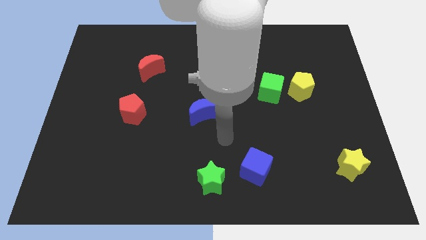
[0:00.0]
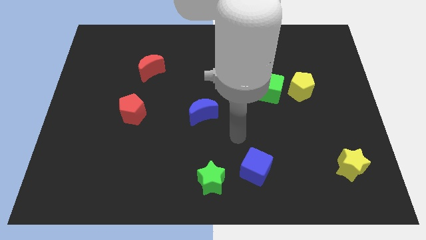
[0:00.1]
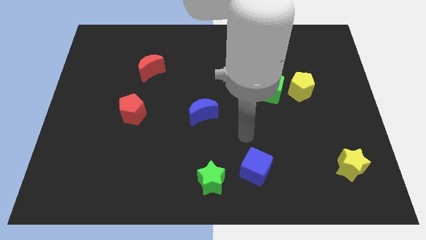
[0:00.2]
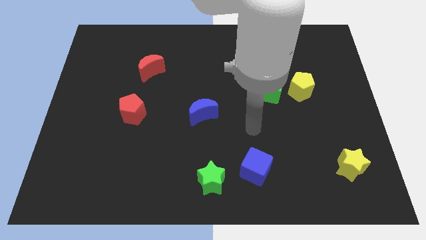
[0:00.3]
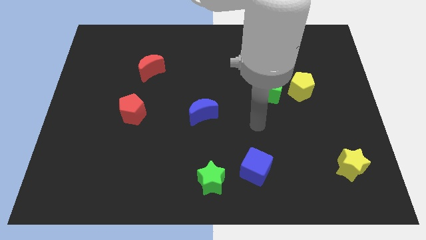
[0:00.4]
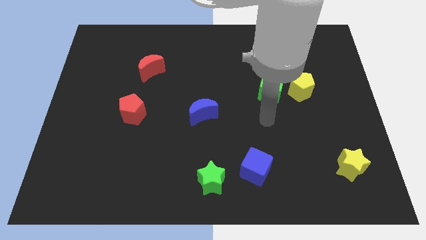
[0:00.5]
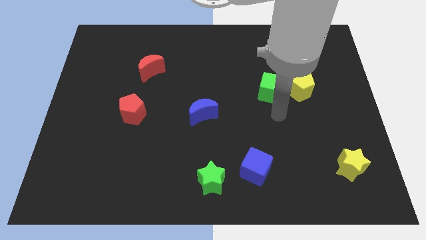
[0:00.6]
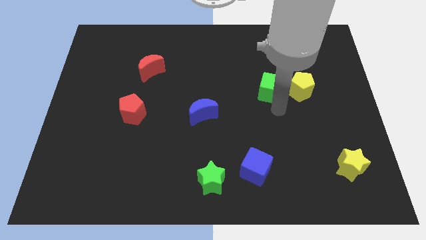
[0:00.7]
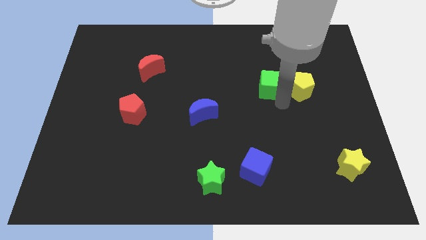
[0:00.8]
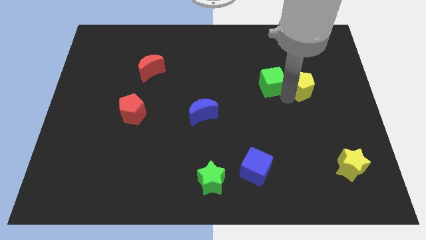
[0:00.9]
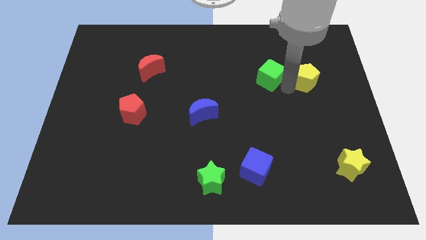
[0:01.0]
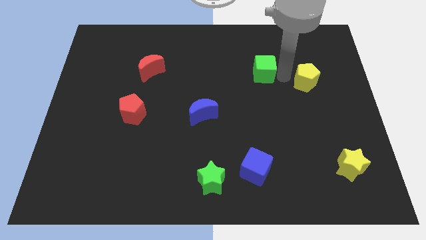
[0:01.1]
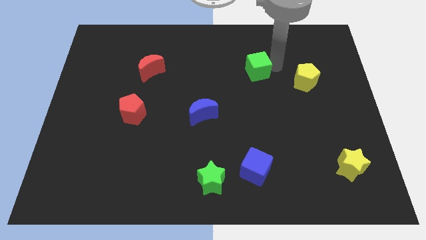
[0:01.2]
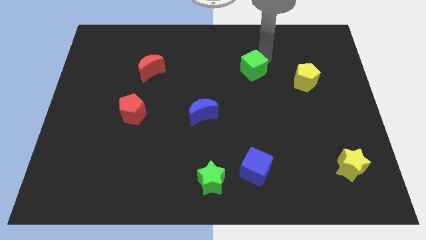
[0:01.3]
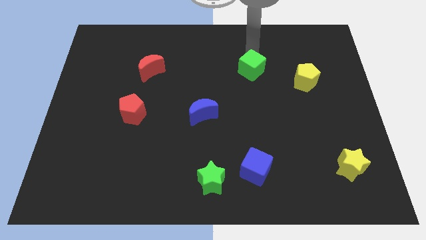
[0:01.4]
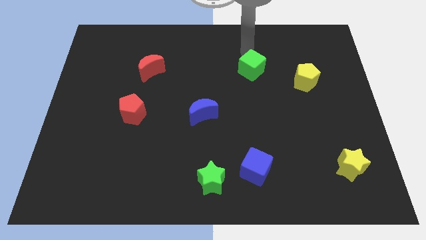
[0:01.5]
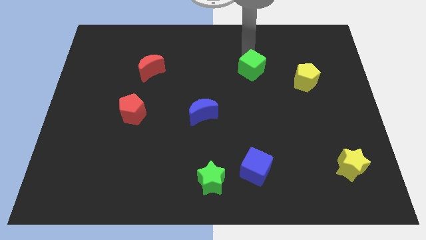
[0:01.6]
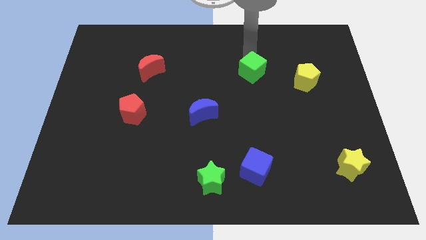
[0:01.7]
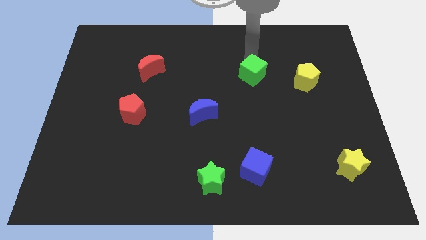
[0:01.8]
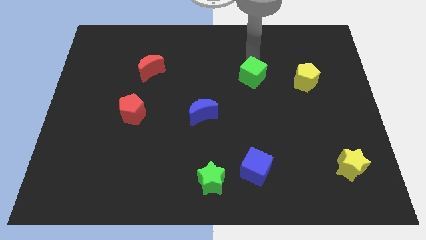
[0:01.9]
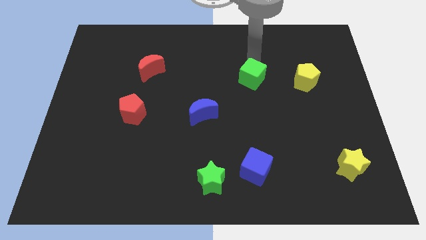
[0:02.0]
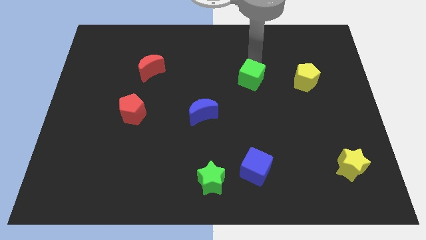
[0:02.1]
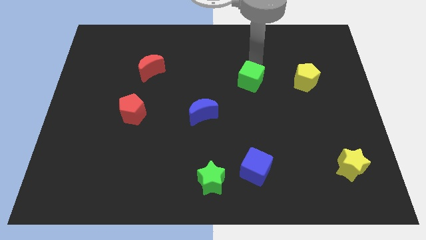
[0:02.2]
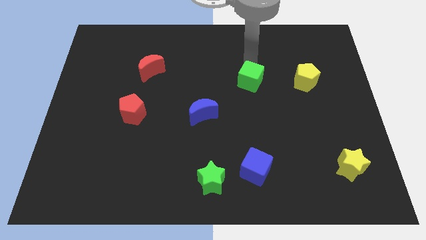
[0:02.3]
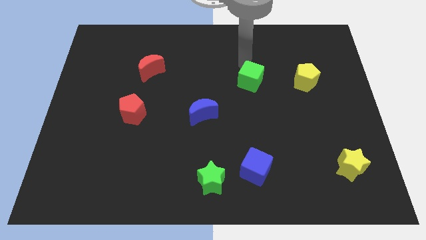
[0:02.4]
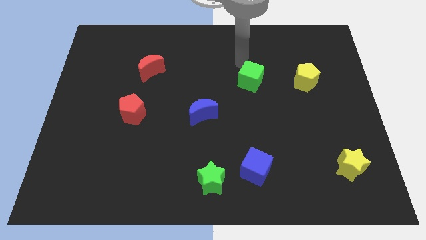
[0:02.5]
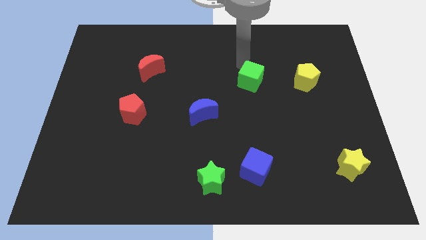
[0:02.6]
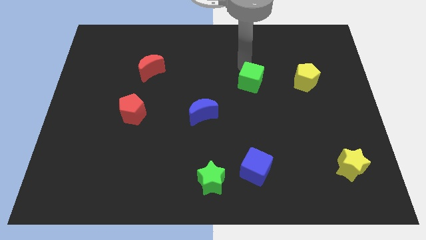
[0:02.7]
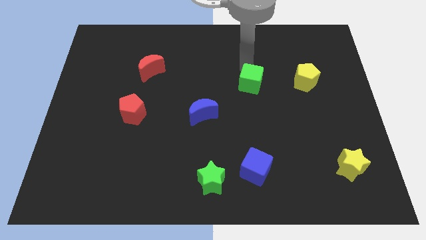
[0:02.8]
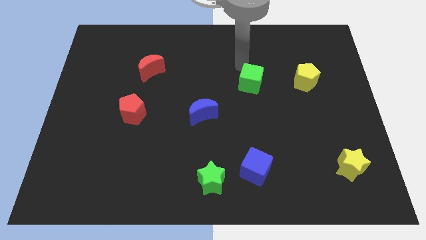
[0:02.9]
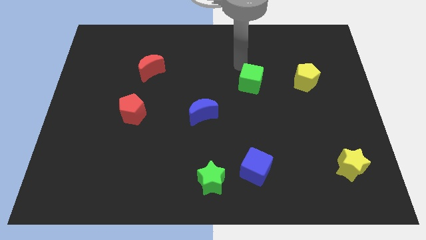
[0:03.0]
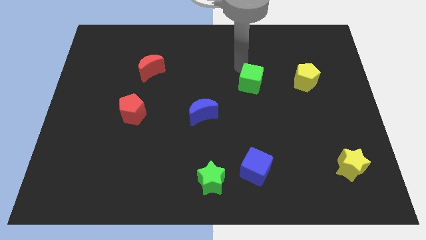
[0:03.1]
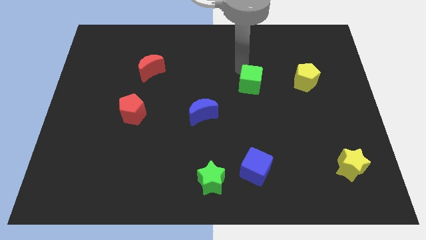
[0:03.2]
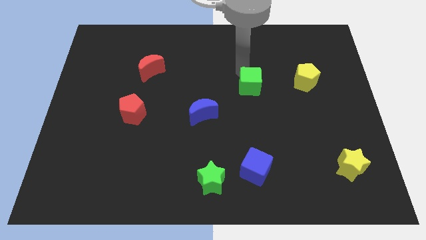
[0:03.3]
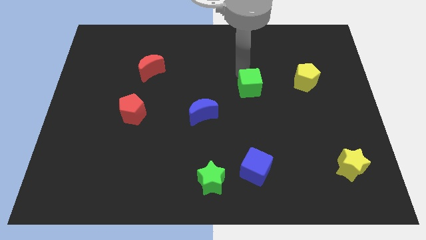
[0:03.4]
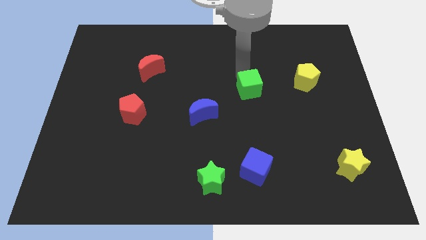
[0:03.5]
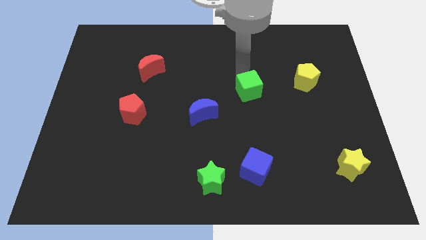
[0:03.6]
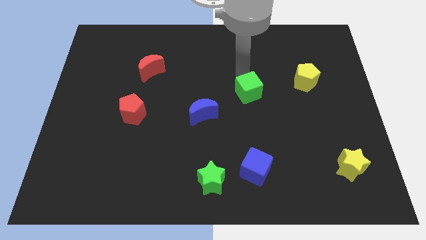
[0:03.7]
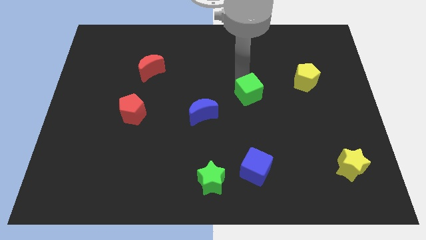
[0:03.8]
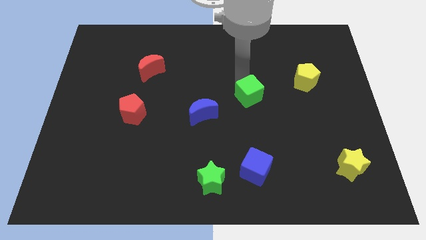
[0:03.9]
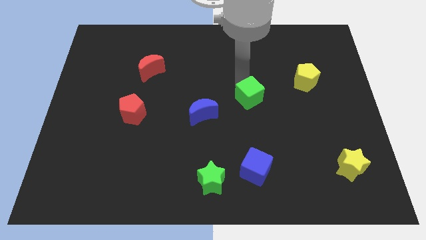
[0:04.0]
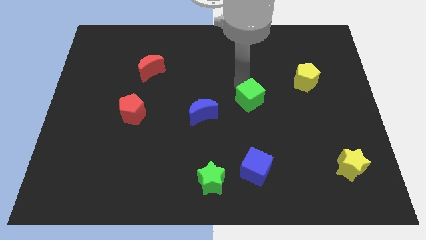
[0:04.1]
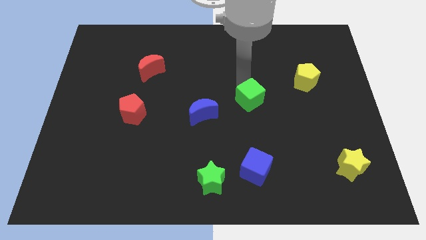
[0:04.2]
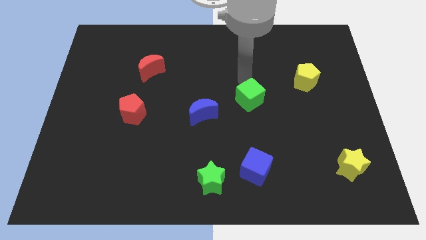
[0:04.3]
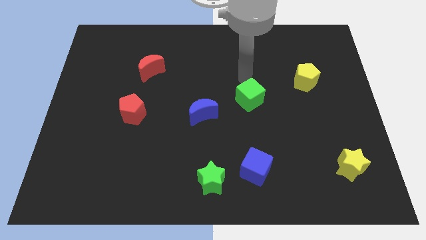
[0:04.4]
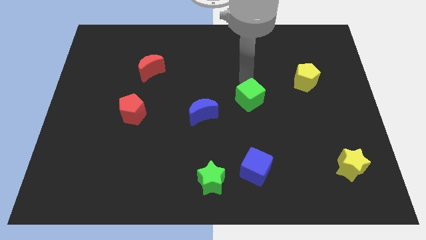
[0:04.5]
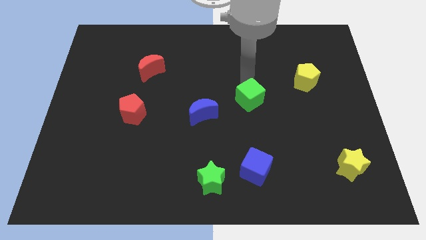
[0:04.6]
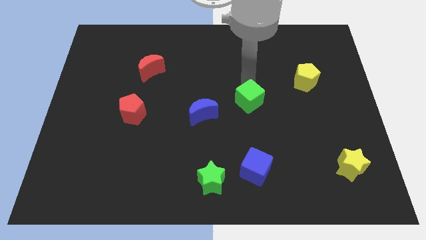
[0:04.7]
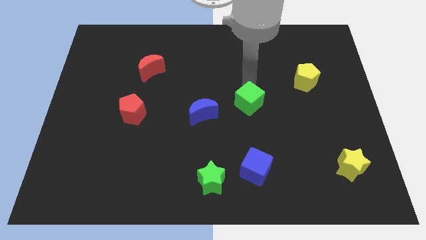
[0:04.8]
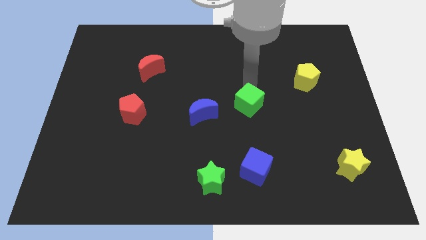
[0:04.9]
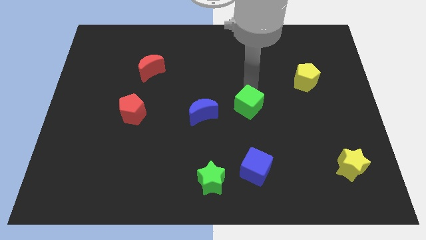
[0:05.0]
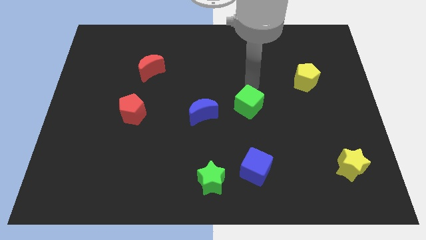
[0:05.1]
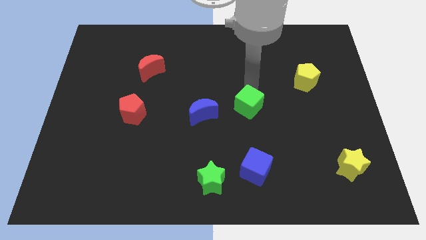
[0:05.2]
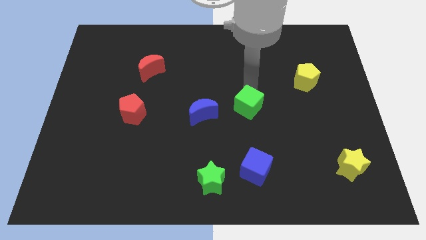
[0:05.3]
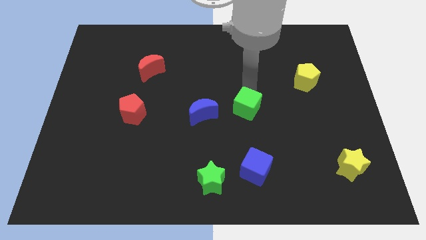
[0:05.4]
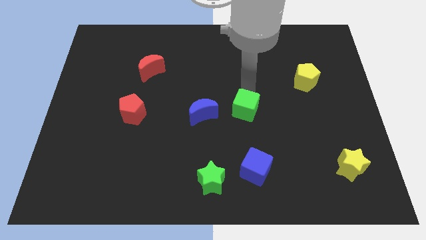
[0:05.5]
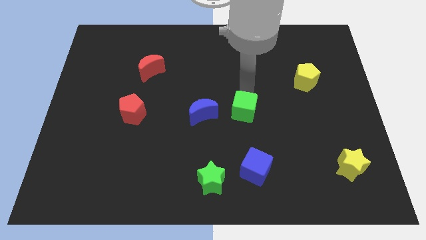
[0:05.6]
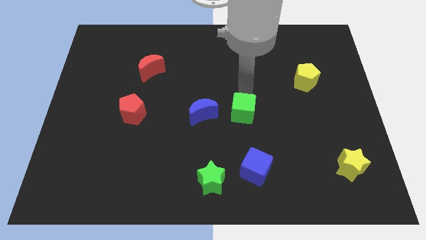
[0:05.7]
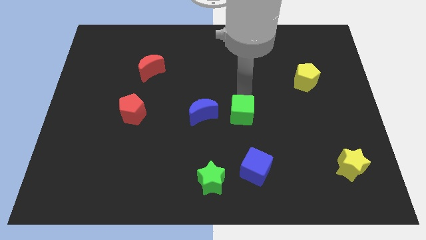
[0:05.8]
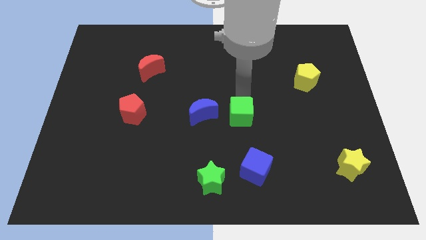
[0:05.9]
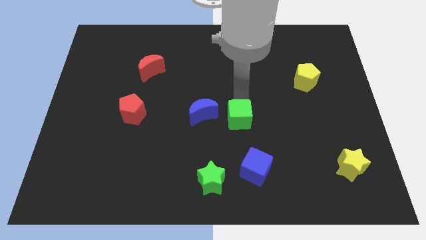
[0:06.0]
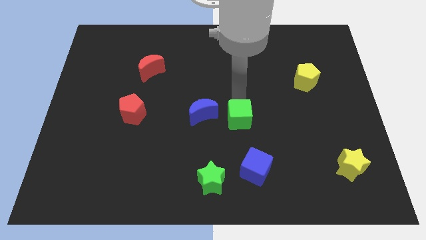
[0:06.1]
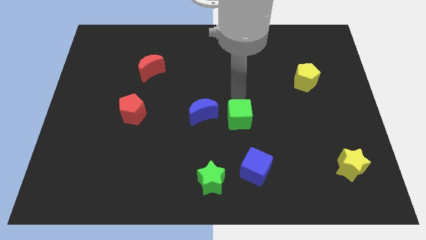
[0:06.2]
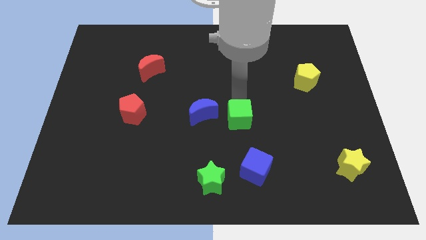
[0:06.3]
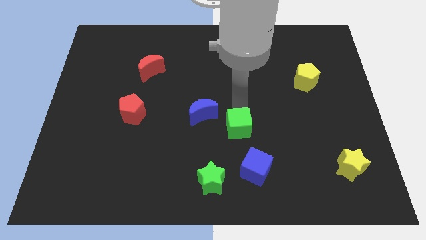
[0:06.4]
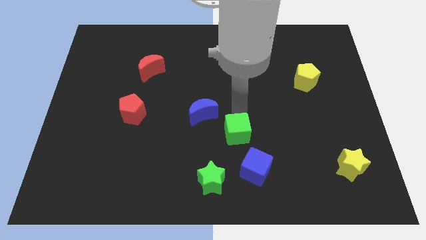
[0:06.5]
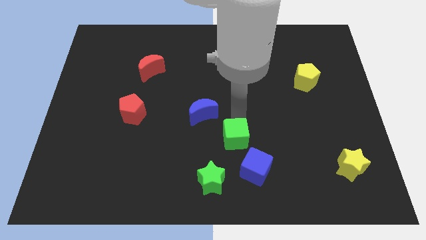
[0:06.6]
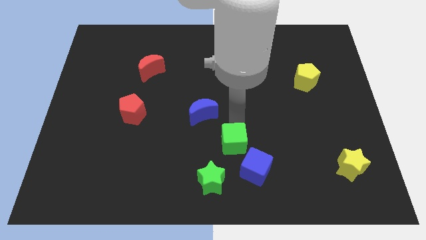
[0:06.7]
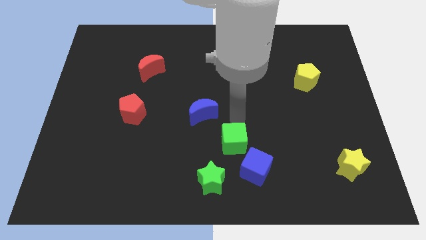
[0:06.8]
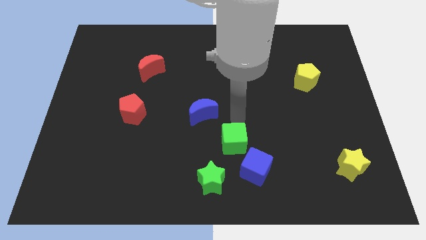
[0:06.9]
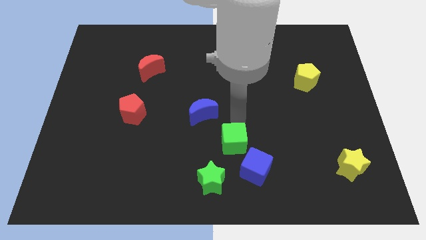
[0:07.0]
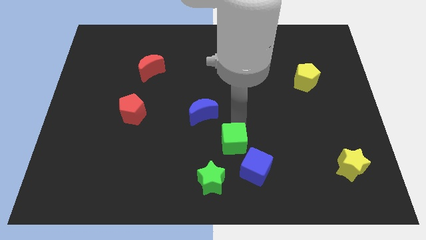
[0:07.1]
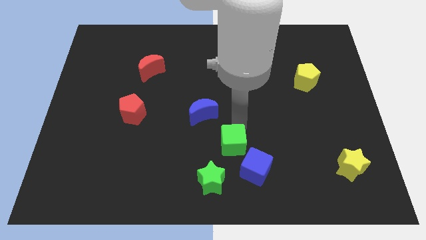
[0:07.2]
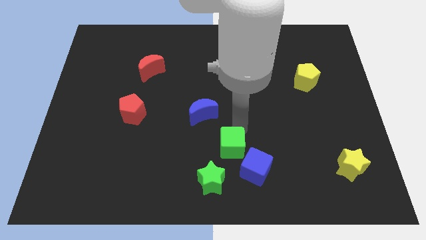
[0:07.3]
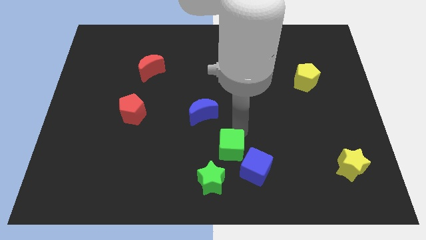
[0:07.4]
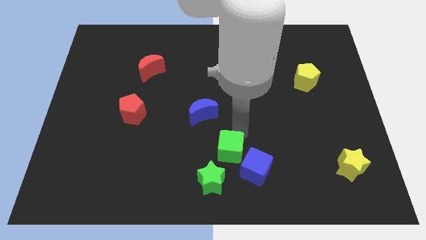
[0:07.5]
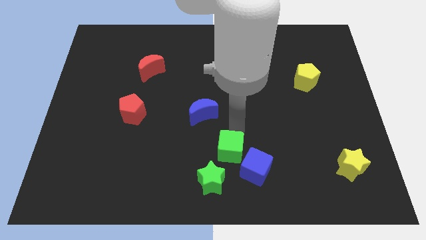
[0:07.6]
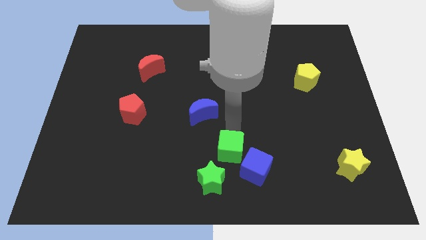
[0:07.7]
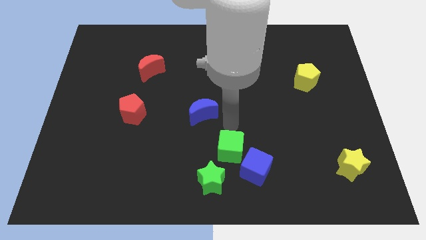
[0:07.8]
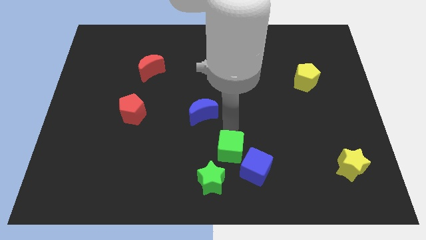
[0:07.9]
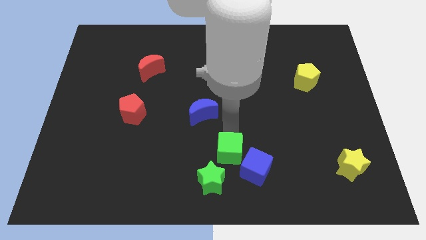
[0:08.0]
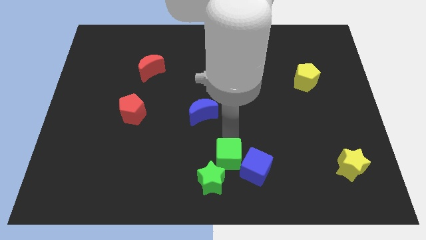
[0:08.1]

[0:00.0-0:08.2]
move the green cube to the bottom side
